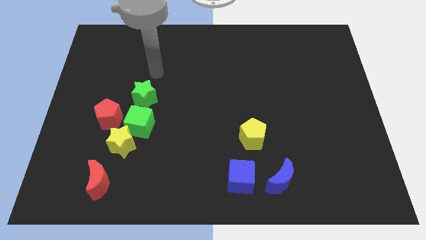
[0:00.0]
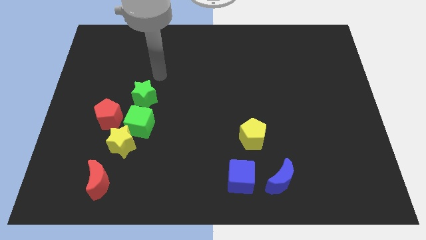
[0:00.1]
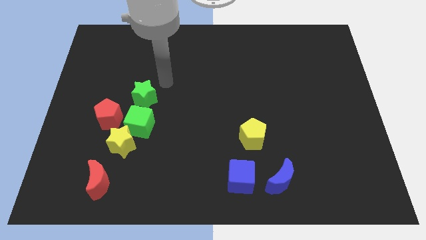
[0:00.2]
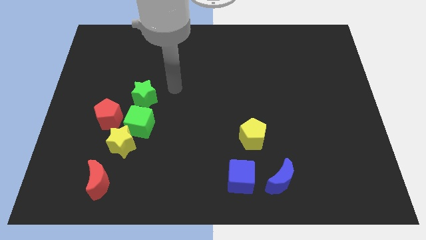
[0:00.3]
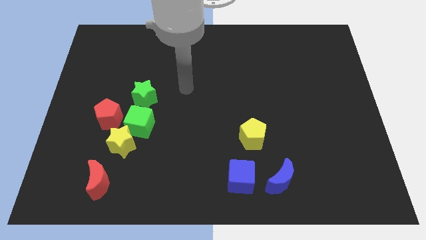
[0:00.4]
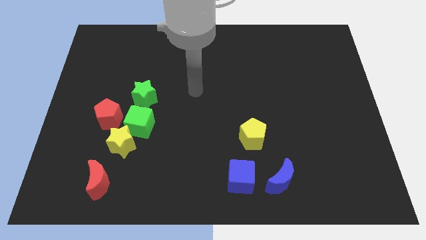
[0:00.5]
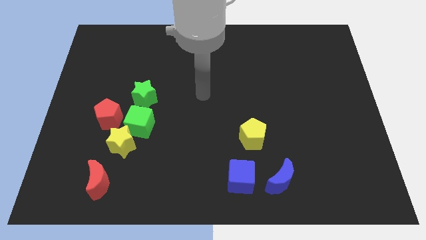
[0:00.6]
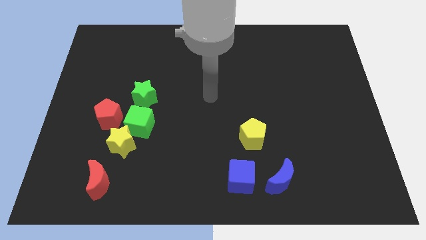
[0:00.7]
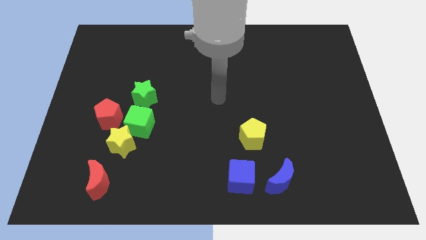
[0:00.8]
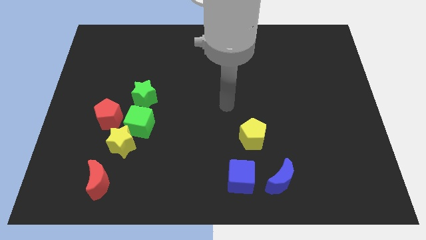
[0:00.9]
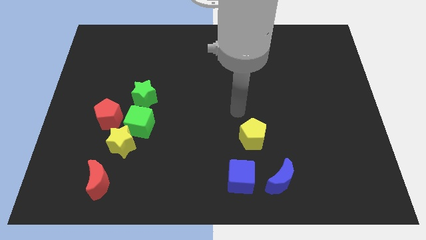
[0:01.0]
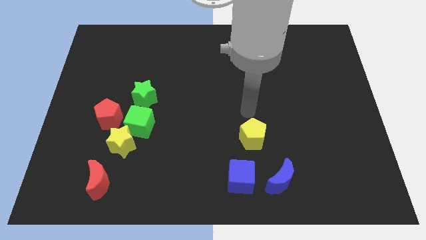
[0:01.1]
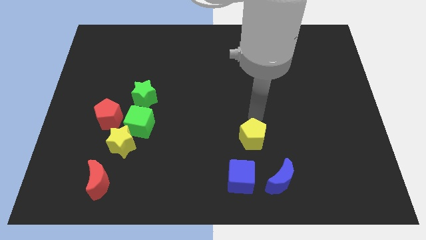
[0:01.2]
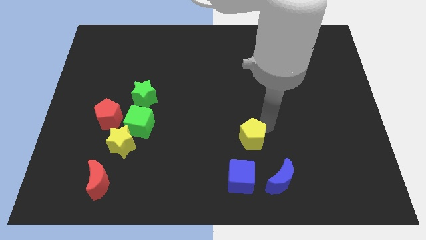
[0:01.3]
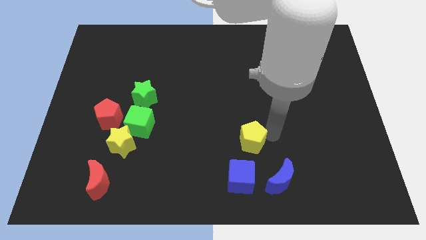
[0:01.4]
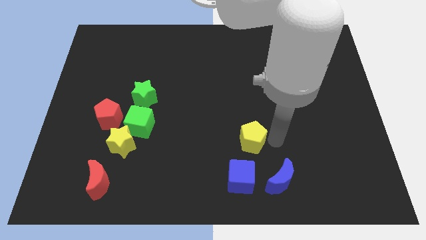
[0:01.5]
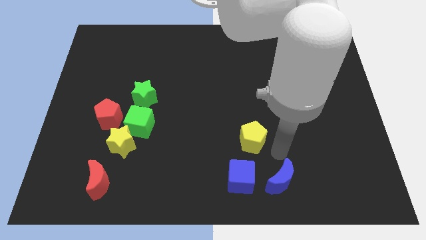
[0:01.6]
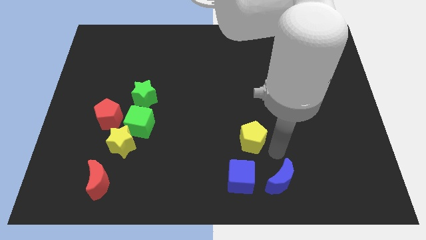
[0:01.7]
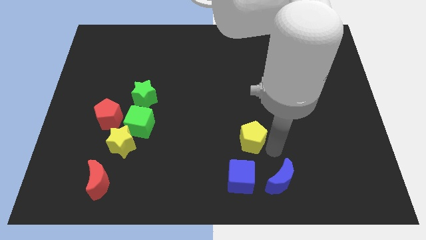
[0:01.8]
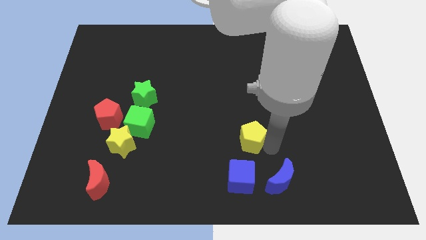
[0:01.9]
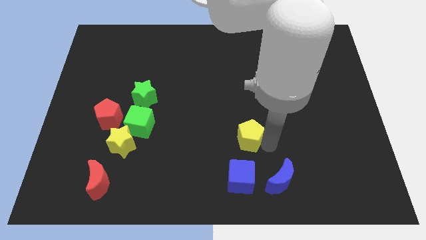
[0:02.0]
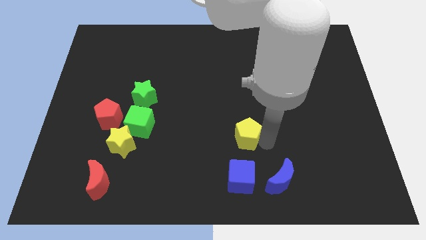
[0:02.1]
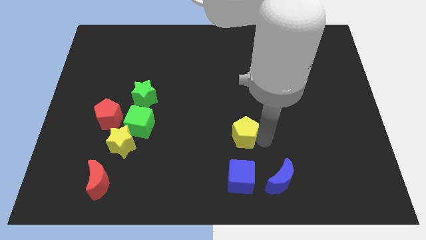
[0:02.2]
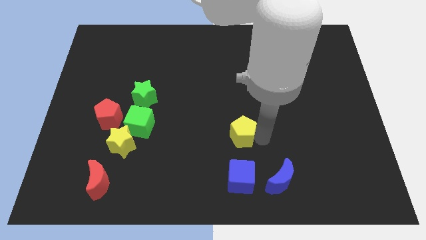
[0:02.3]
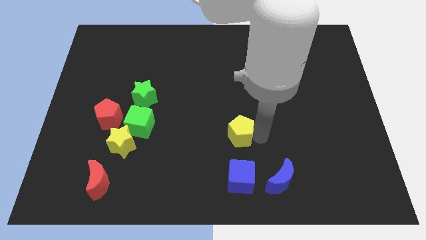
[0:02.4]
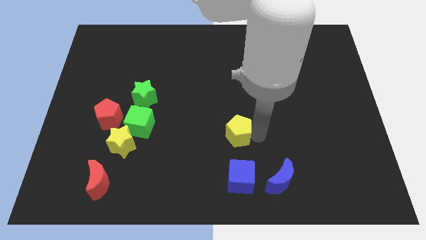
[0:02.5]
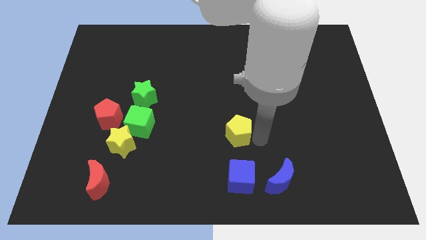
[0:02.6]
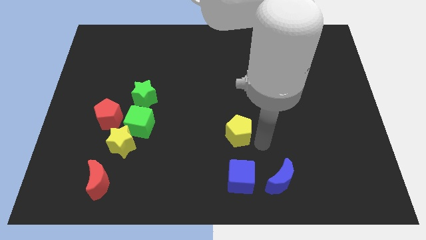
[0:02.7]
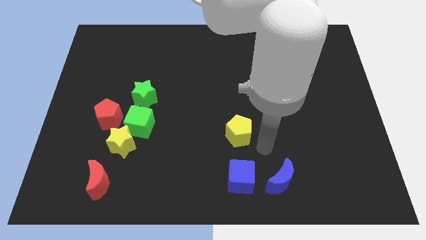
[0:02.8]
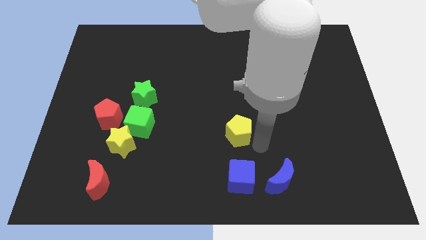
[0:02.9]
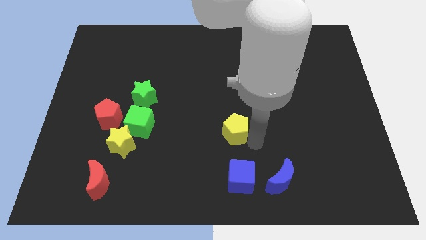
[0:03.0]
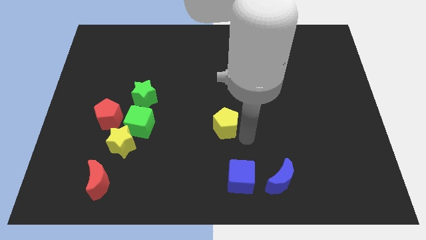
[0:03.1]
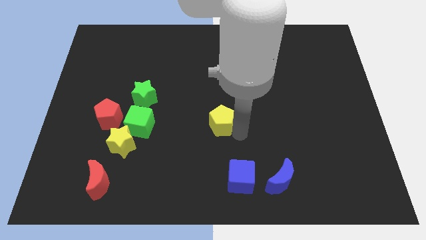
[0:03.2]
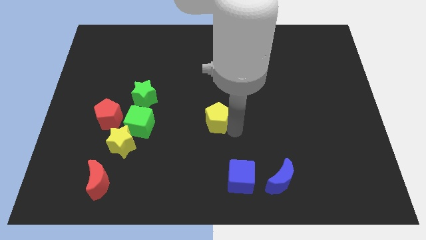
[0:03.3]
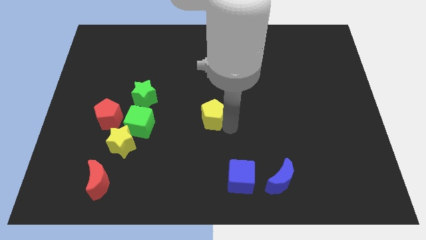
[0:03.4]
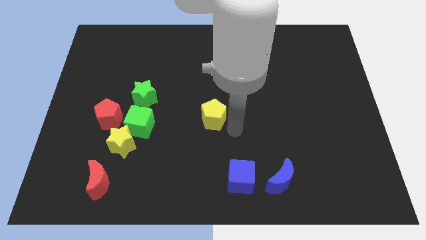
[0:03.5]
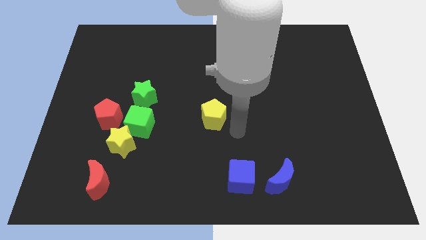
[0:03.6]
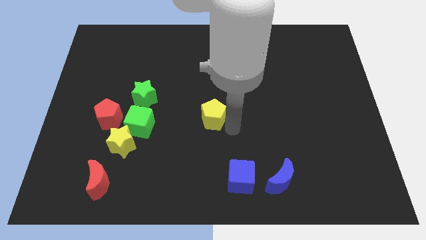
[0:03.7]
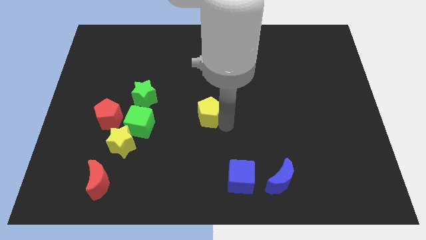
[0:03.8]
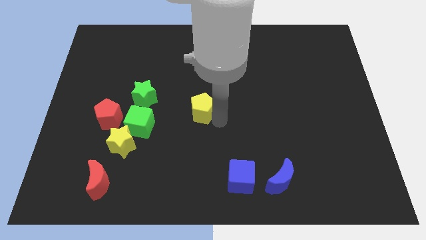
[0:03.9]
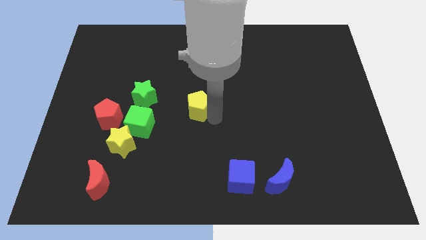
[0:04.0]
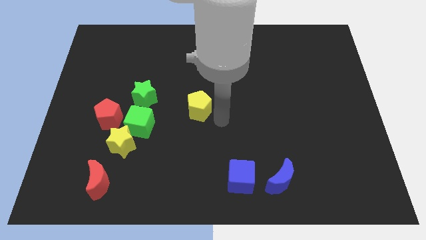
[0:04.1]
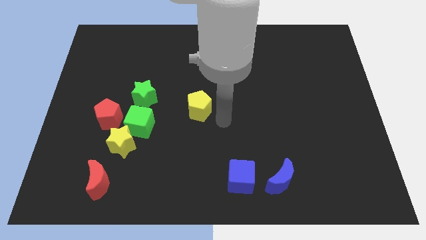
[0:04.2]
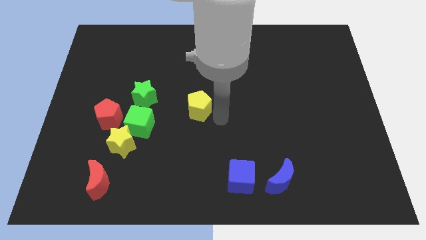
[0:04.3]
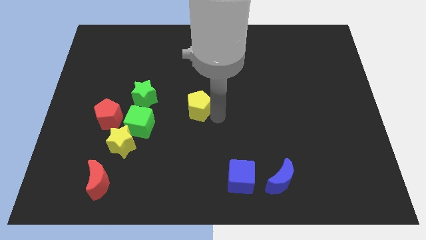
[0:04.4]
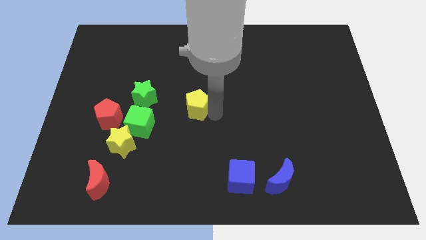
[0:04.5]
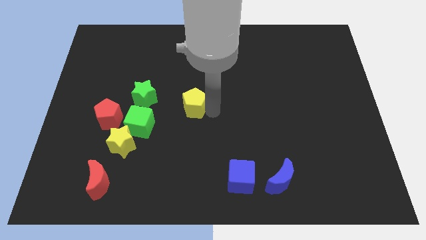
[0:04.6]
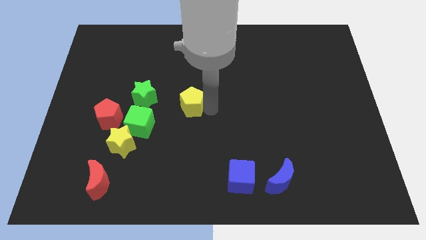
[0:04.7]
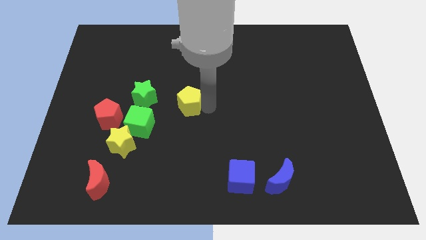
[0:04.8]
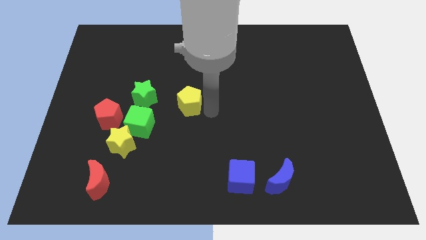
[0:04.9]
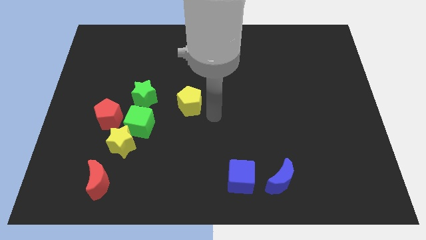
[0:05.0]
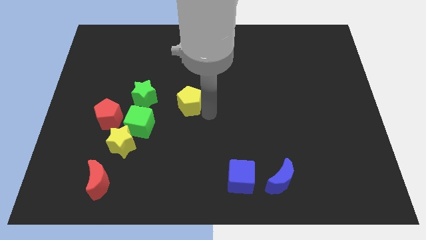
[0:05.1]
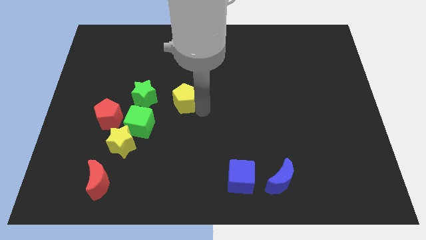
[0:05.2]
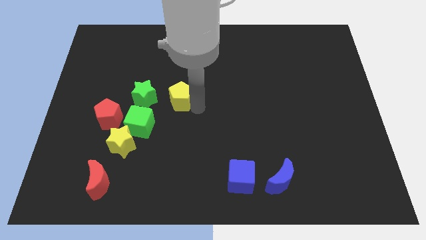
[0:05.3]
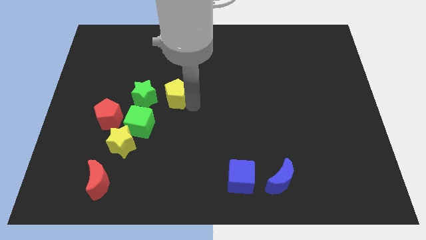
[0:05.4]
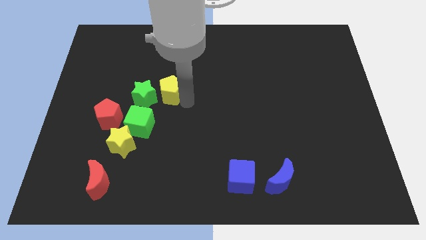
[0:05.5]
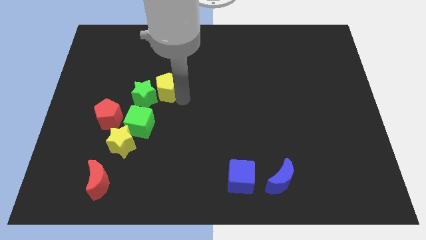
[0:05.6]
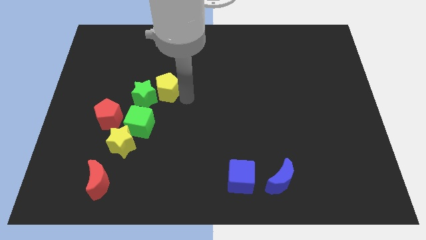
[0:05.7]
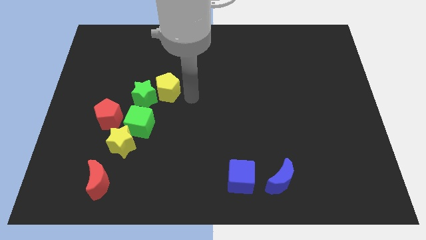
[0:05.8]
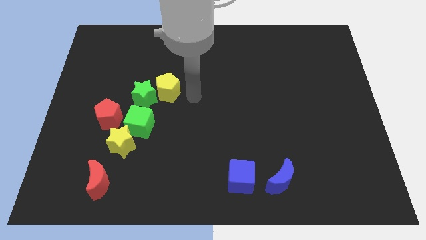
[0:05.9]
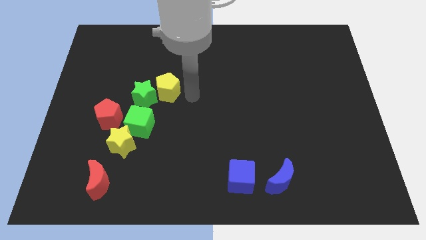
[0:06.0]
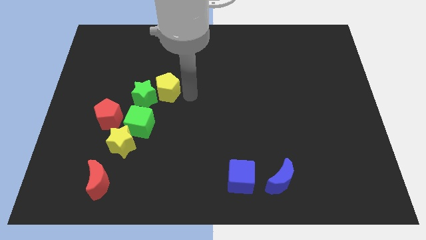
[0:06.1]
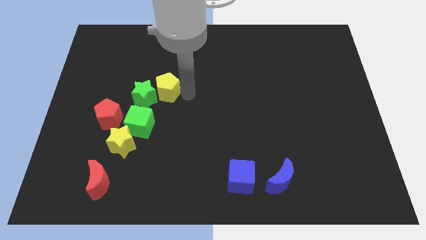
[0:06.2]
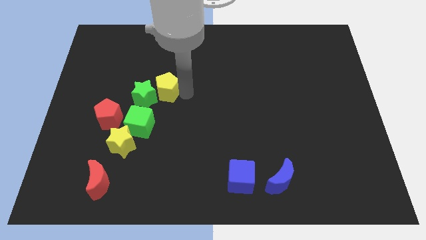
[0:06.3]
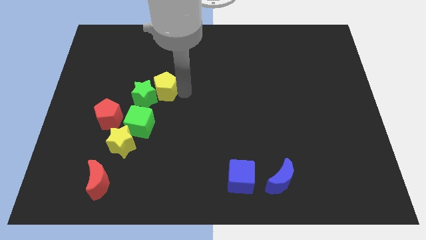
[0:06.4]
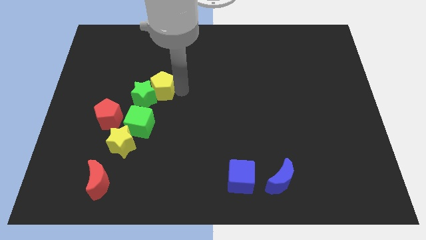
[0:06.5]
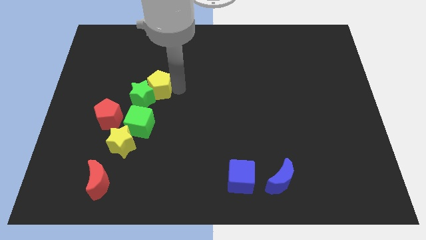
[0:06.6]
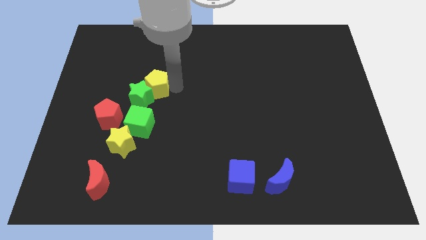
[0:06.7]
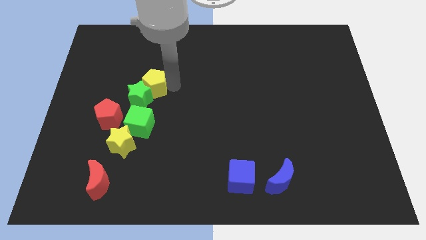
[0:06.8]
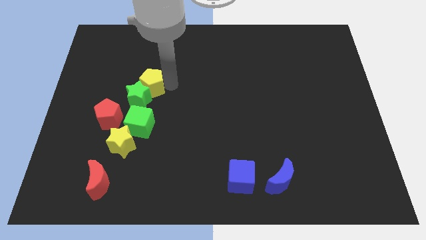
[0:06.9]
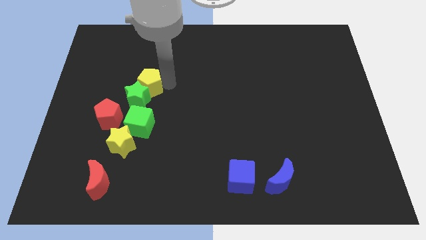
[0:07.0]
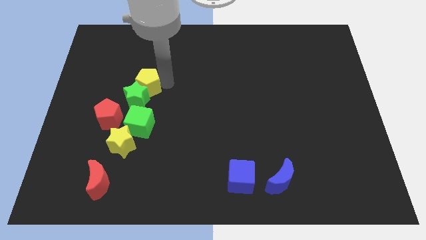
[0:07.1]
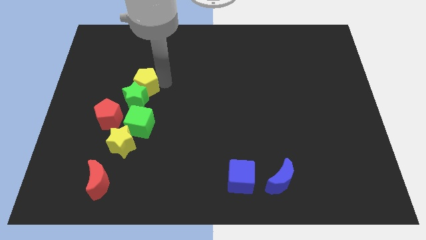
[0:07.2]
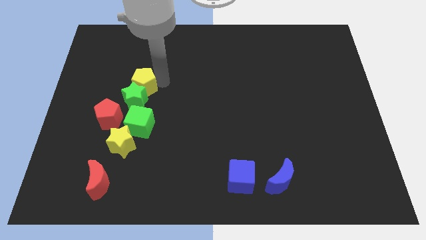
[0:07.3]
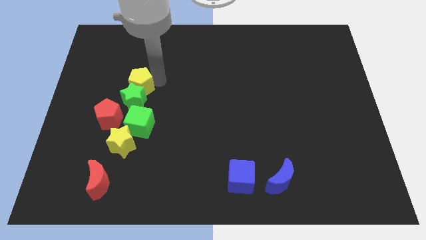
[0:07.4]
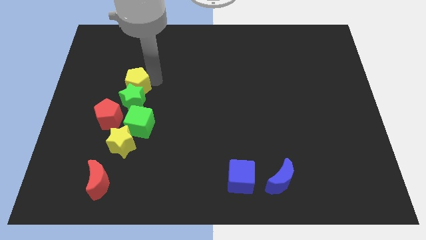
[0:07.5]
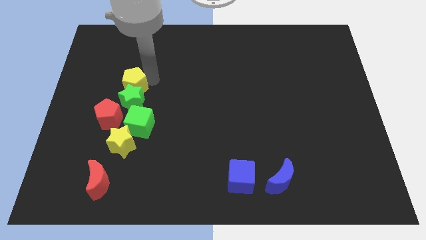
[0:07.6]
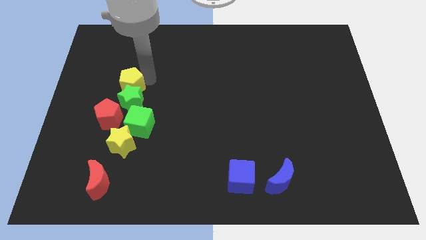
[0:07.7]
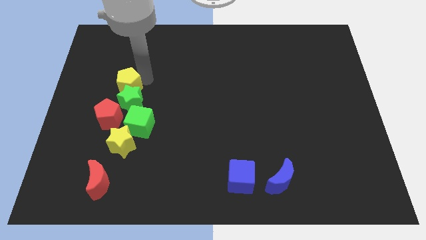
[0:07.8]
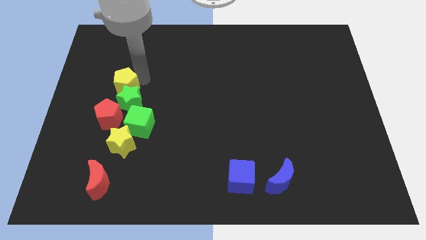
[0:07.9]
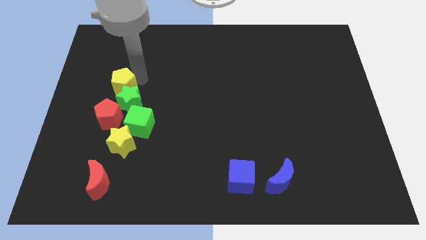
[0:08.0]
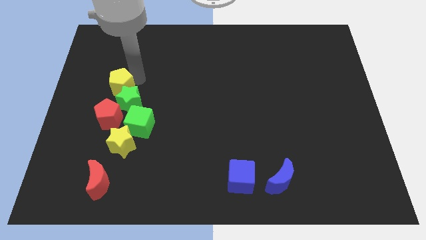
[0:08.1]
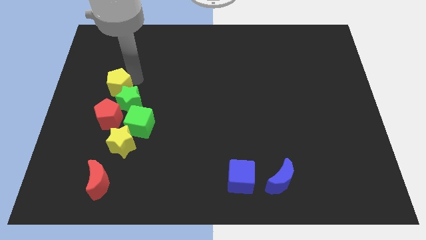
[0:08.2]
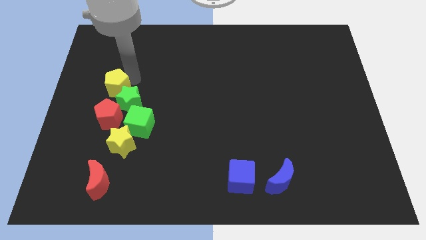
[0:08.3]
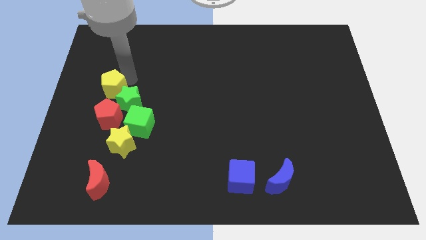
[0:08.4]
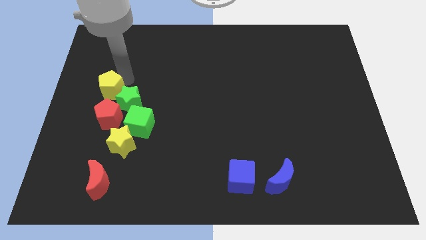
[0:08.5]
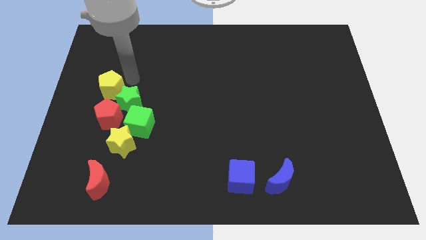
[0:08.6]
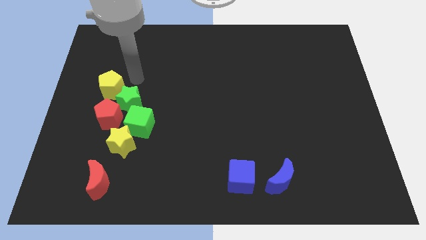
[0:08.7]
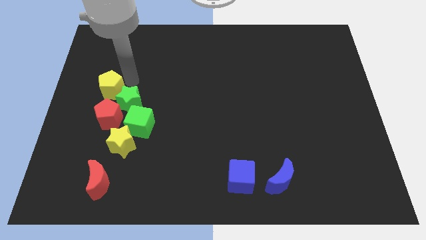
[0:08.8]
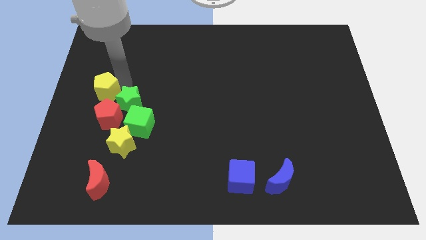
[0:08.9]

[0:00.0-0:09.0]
put the yellow pentagon to the center left
